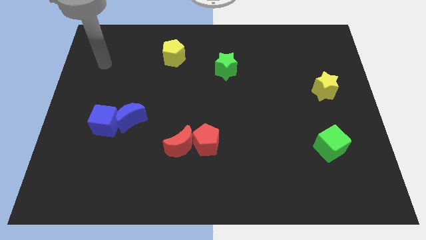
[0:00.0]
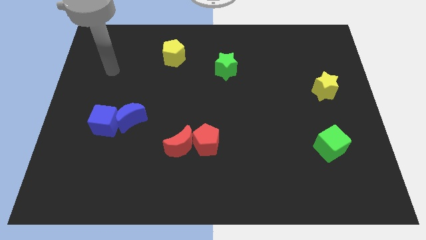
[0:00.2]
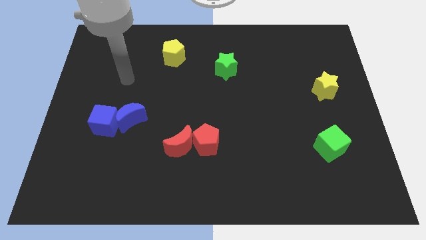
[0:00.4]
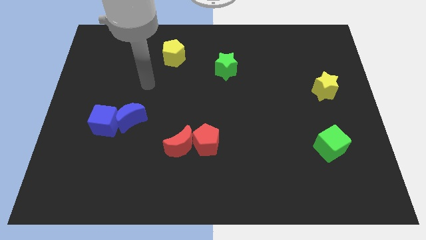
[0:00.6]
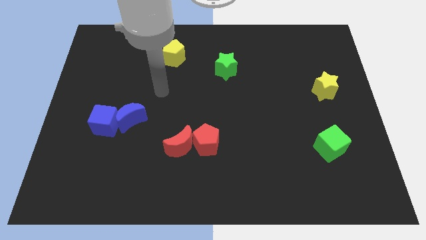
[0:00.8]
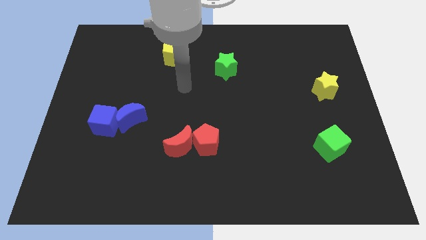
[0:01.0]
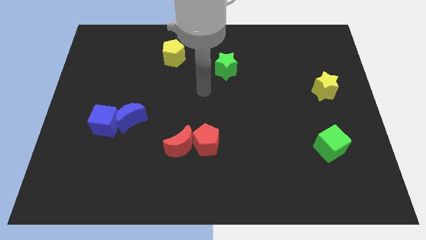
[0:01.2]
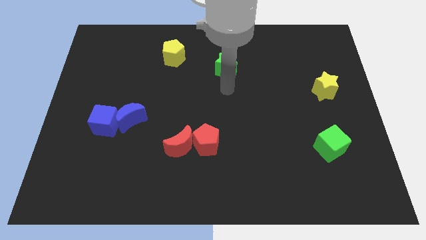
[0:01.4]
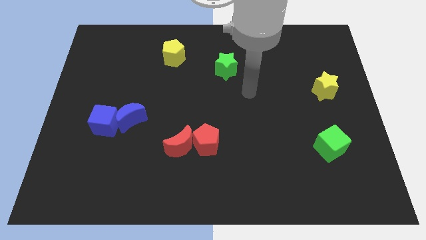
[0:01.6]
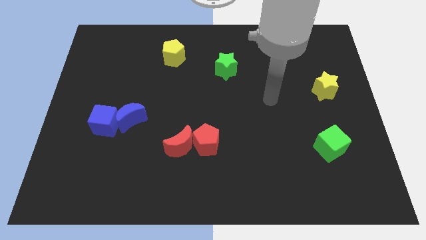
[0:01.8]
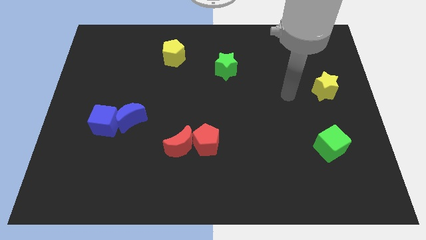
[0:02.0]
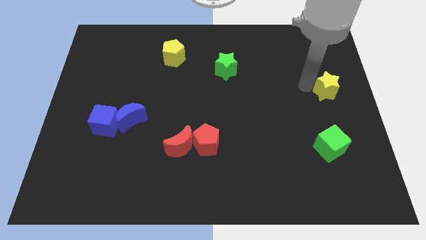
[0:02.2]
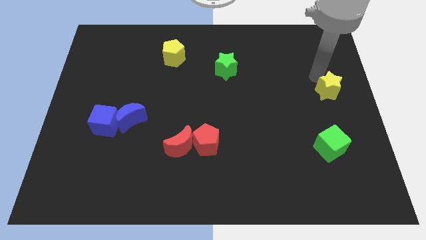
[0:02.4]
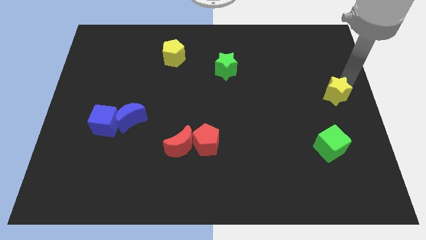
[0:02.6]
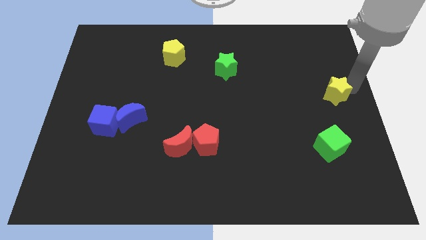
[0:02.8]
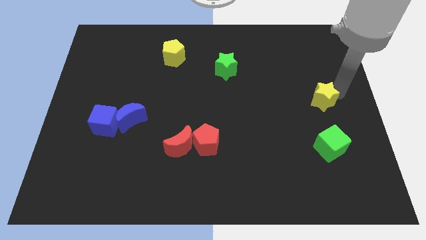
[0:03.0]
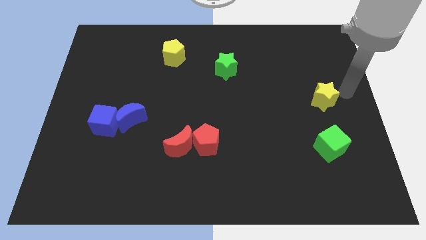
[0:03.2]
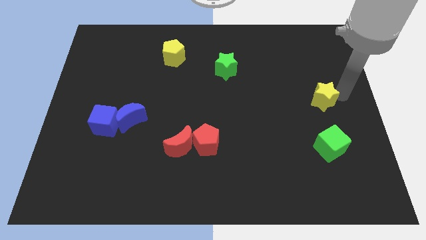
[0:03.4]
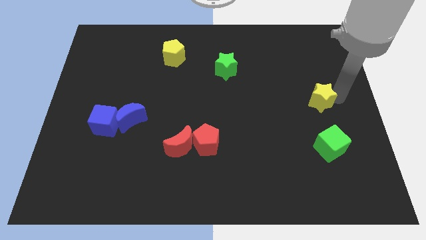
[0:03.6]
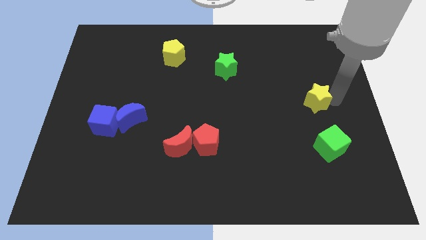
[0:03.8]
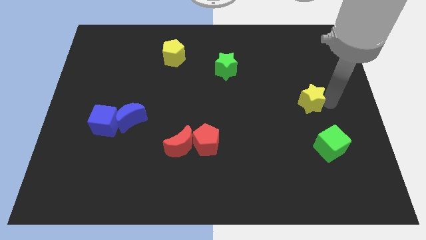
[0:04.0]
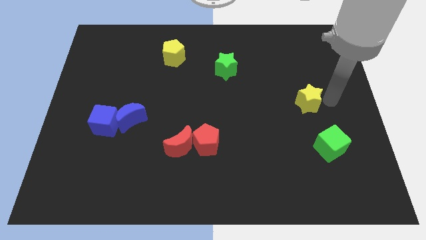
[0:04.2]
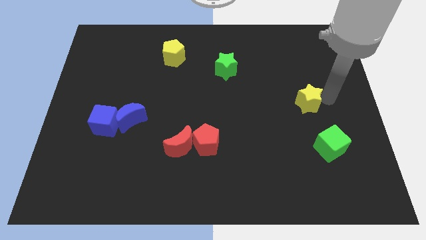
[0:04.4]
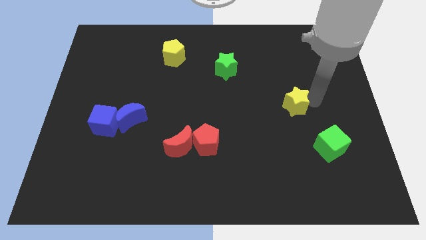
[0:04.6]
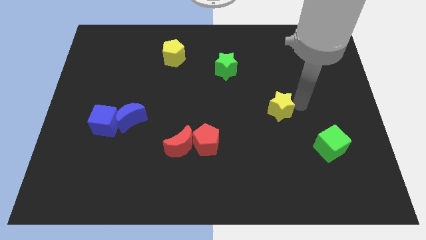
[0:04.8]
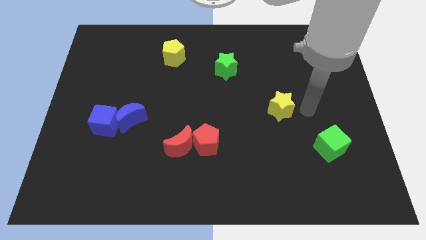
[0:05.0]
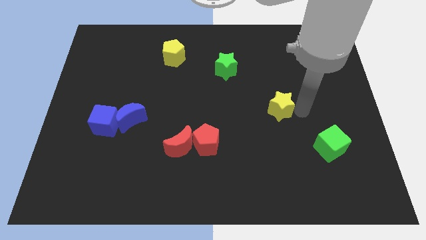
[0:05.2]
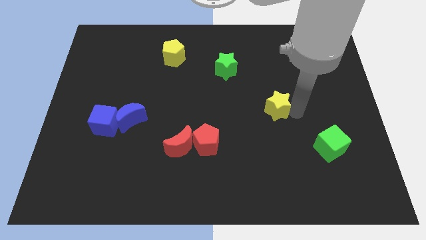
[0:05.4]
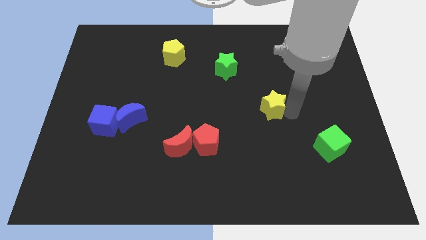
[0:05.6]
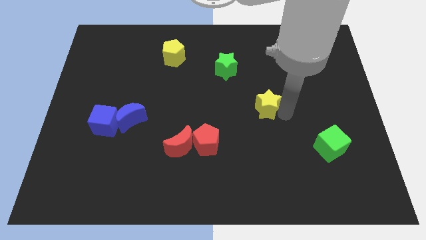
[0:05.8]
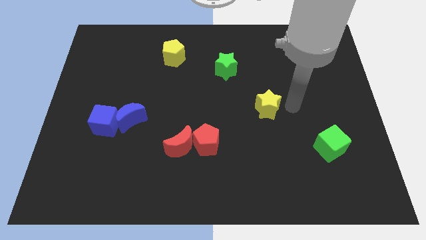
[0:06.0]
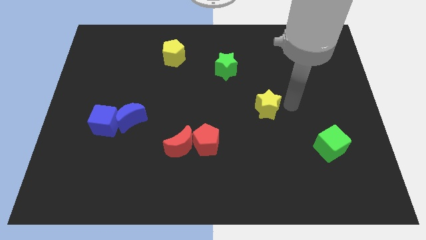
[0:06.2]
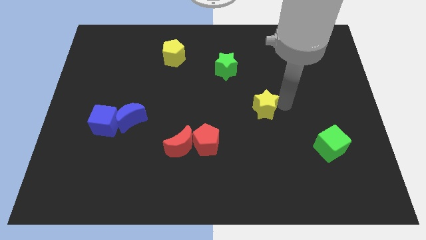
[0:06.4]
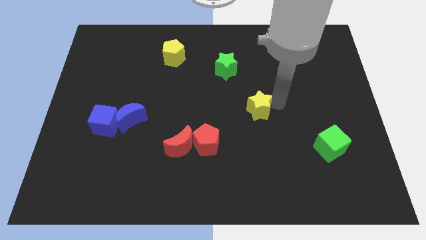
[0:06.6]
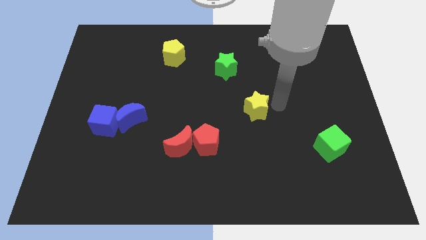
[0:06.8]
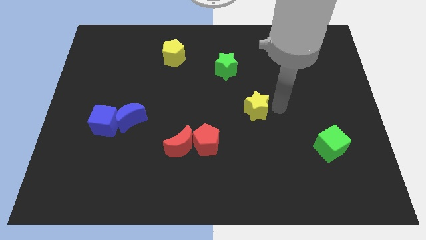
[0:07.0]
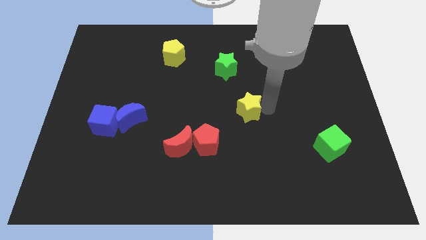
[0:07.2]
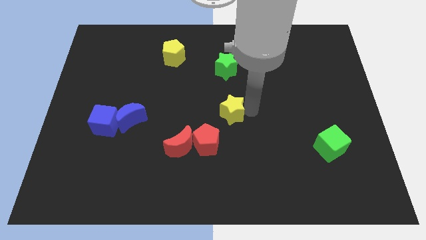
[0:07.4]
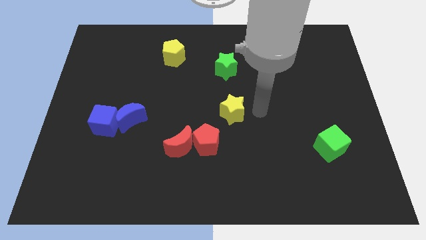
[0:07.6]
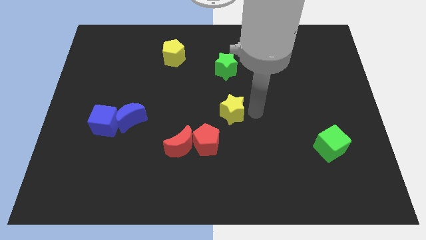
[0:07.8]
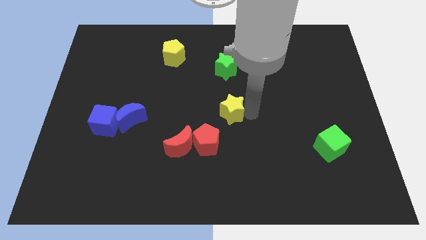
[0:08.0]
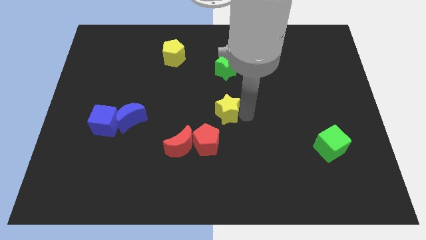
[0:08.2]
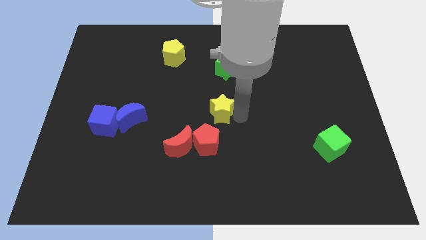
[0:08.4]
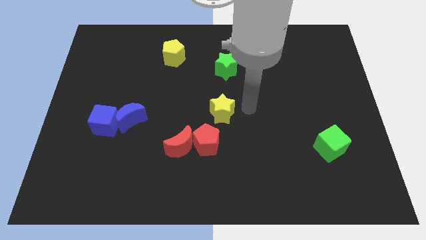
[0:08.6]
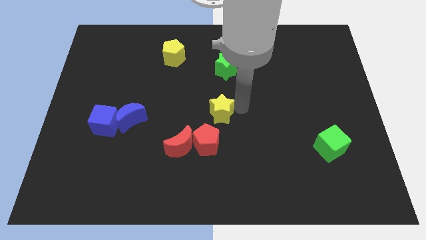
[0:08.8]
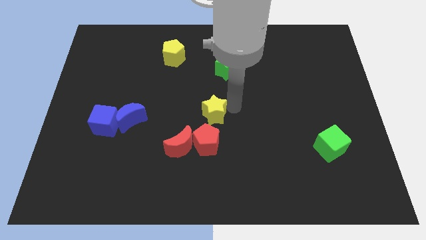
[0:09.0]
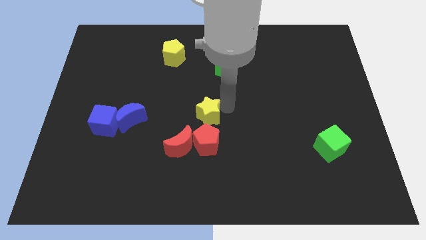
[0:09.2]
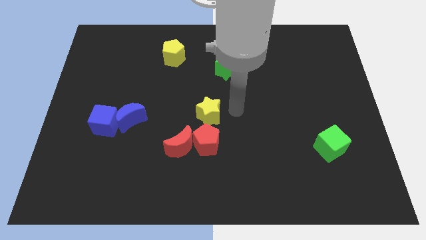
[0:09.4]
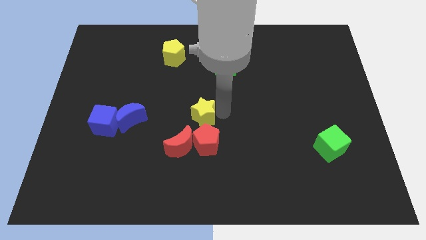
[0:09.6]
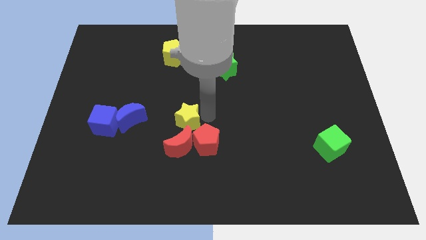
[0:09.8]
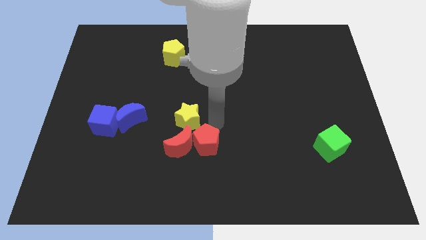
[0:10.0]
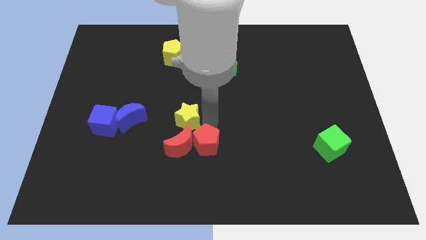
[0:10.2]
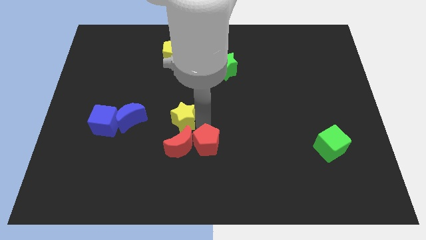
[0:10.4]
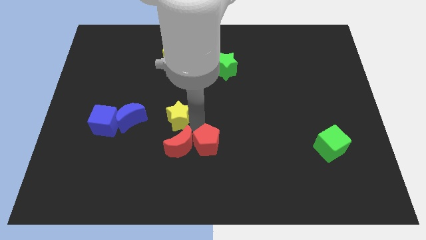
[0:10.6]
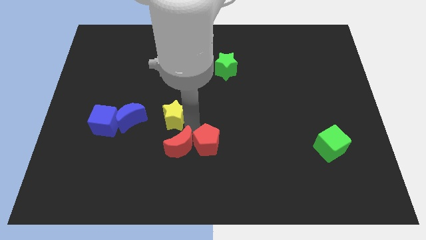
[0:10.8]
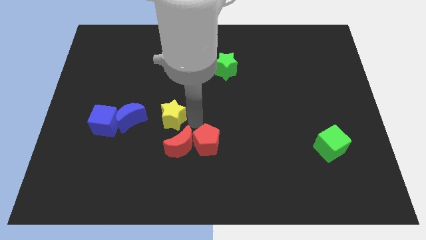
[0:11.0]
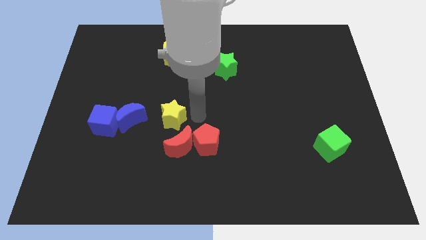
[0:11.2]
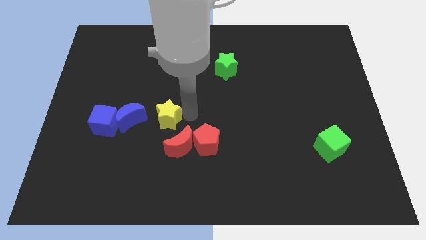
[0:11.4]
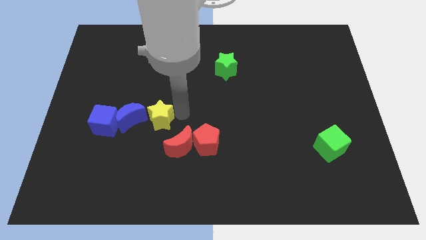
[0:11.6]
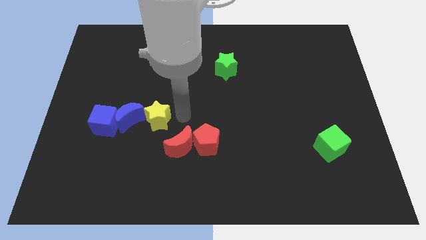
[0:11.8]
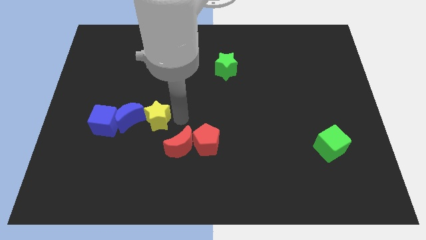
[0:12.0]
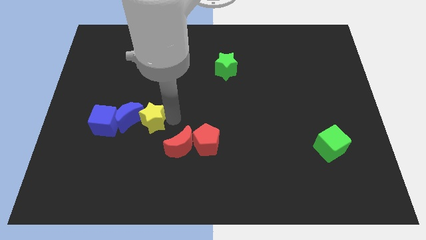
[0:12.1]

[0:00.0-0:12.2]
slide the yellow star next to the blue moon

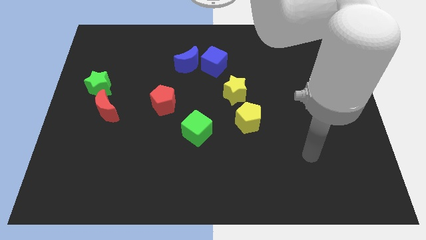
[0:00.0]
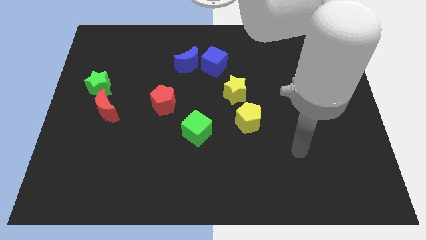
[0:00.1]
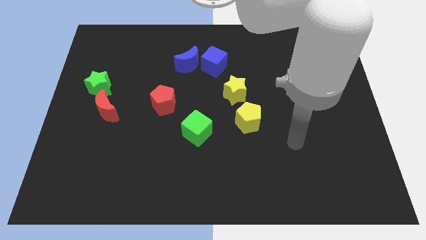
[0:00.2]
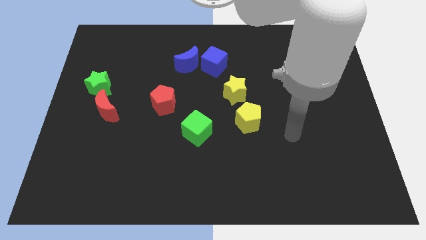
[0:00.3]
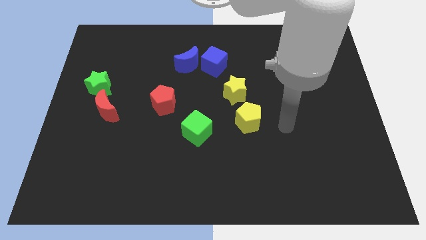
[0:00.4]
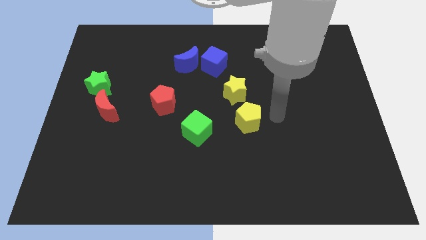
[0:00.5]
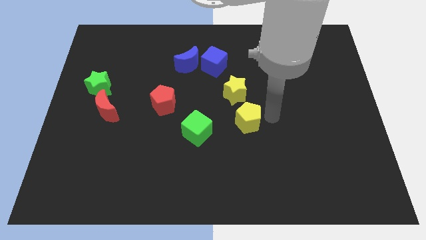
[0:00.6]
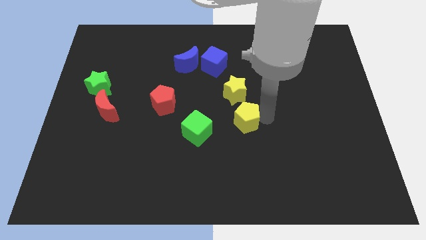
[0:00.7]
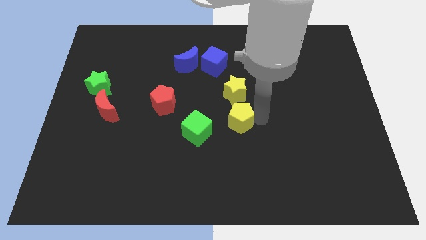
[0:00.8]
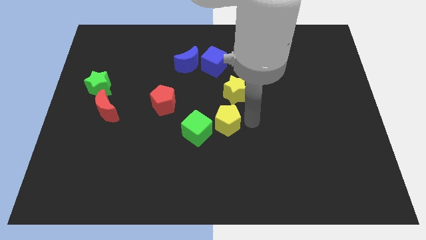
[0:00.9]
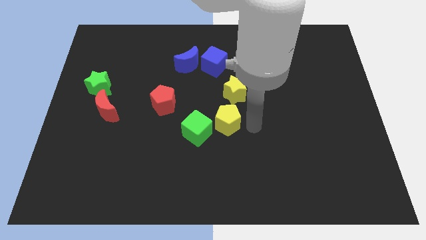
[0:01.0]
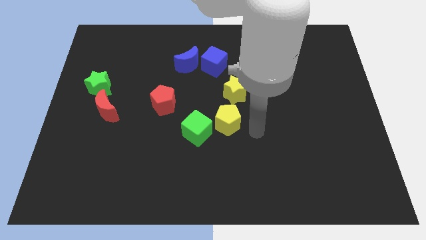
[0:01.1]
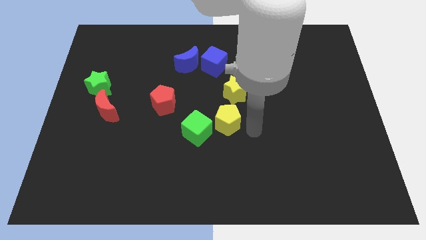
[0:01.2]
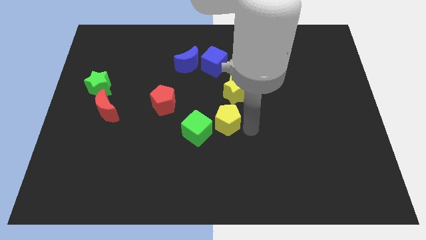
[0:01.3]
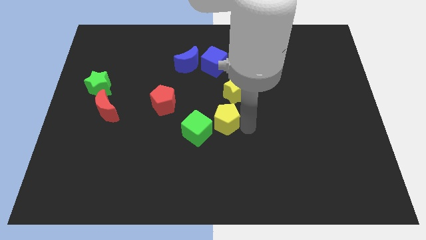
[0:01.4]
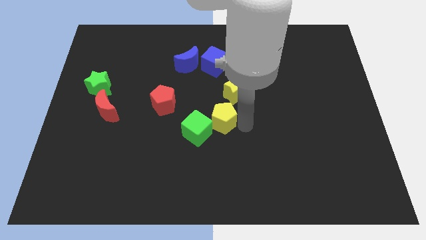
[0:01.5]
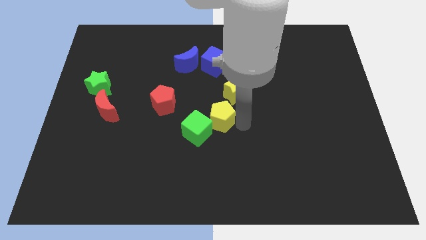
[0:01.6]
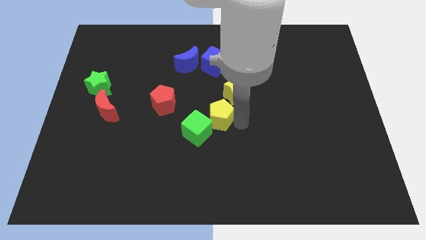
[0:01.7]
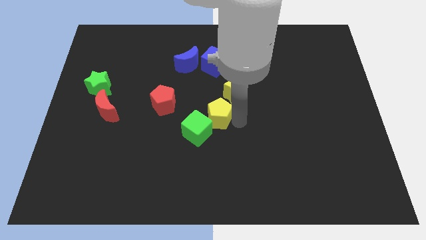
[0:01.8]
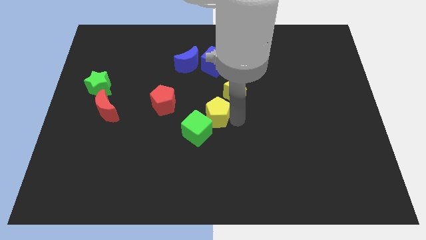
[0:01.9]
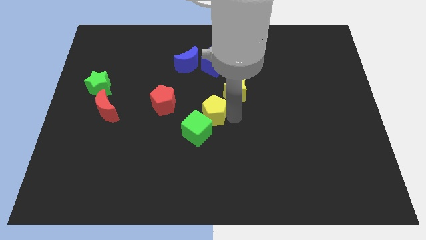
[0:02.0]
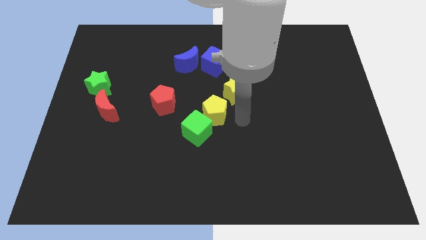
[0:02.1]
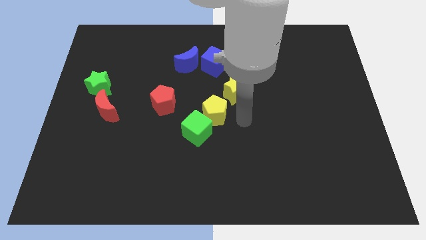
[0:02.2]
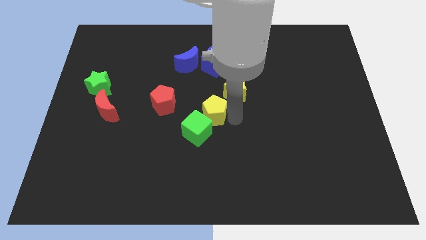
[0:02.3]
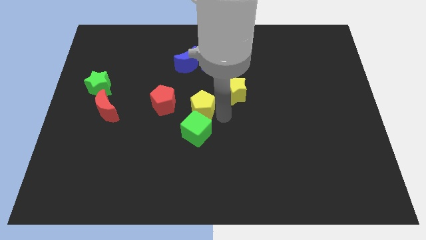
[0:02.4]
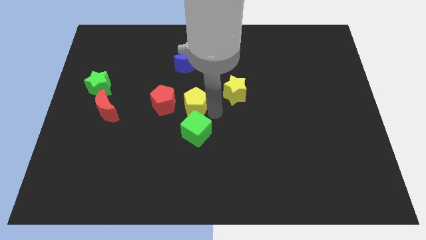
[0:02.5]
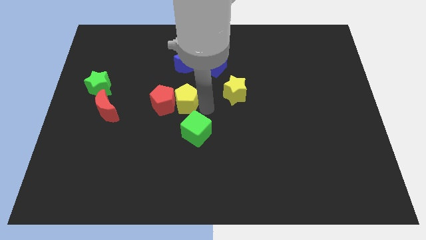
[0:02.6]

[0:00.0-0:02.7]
slide the yellow pentagon next to the red pentagon
